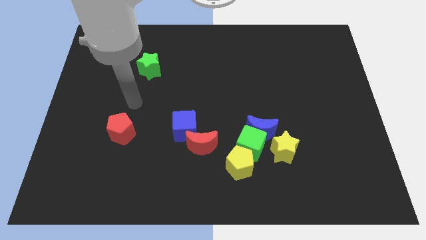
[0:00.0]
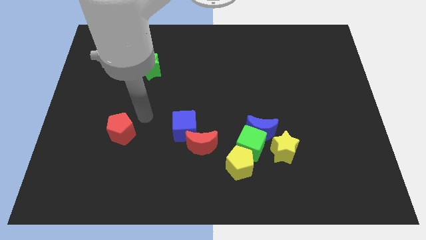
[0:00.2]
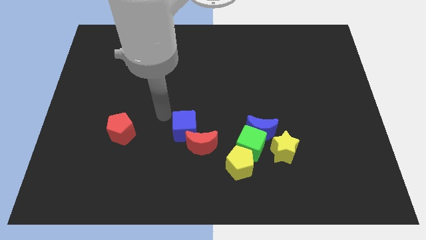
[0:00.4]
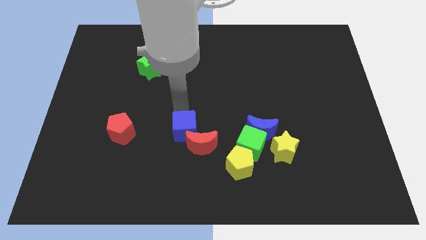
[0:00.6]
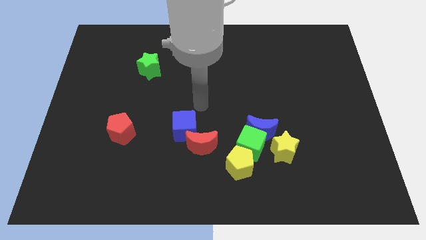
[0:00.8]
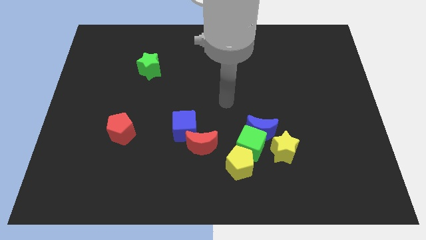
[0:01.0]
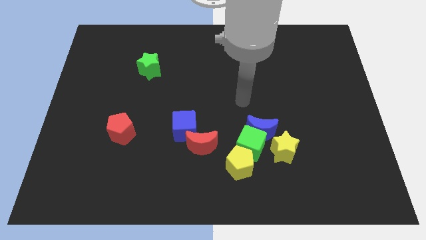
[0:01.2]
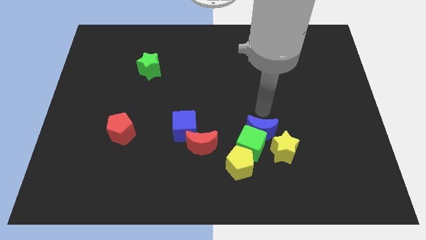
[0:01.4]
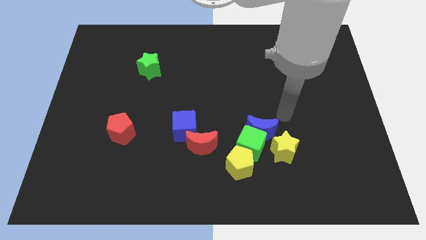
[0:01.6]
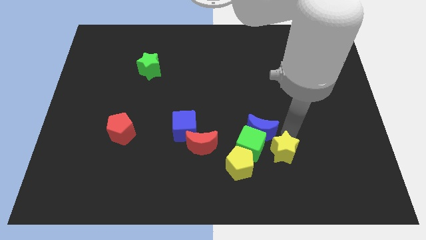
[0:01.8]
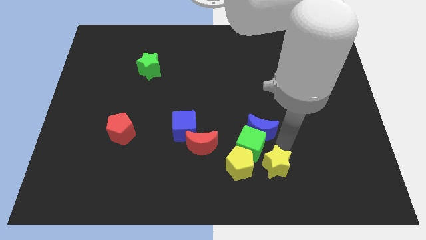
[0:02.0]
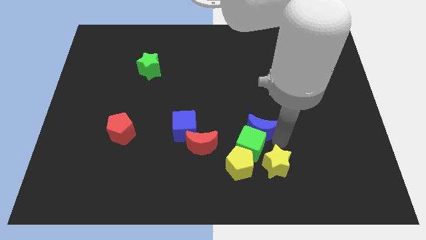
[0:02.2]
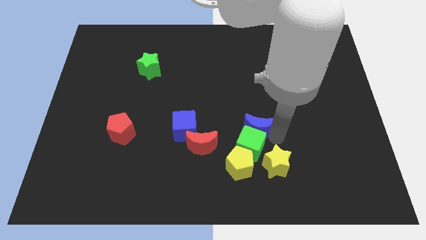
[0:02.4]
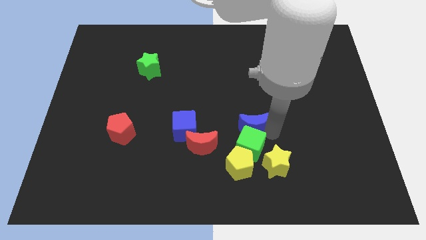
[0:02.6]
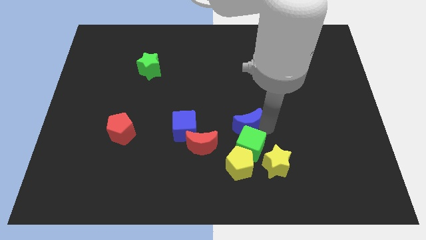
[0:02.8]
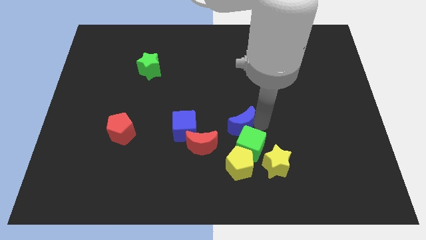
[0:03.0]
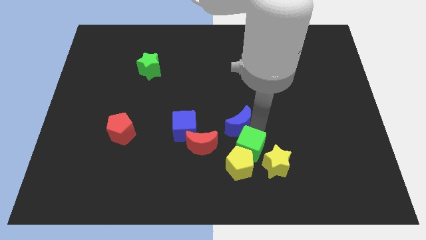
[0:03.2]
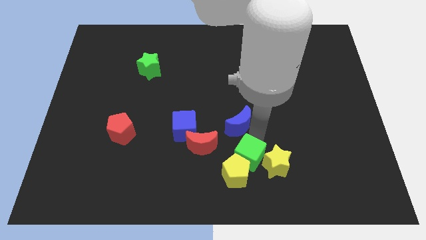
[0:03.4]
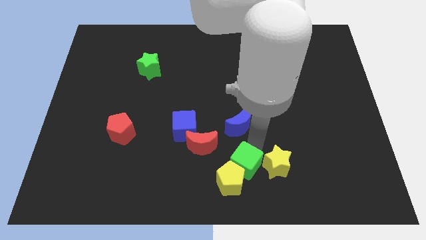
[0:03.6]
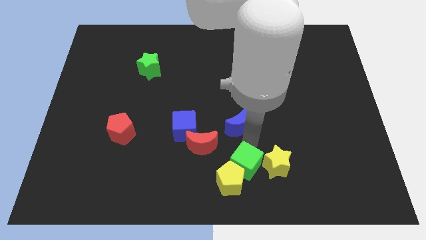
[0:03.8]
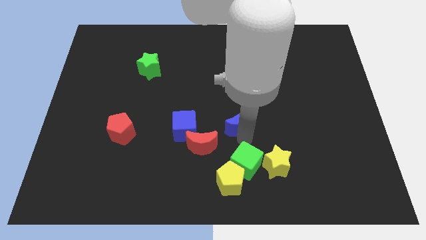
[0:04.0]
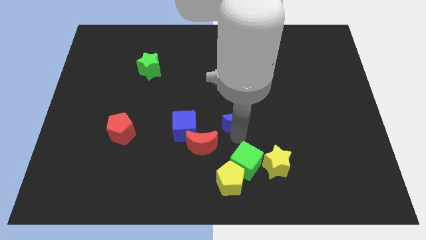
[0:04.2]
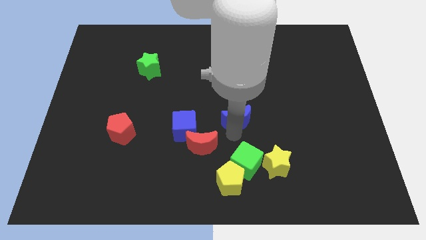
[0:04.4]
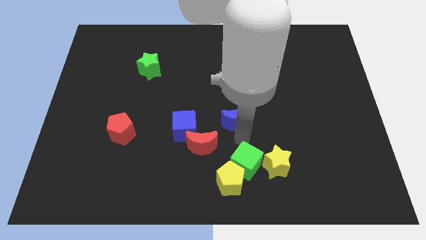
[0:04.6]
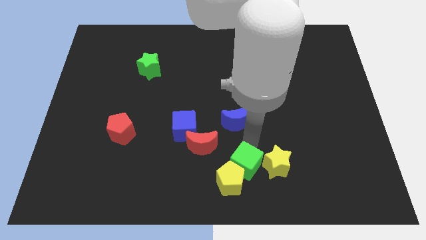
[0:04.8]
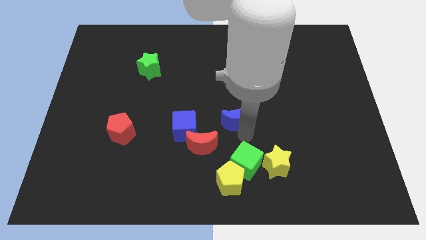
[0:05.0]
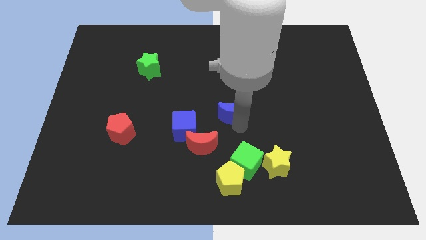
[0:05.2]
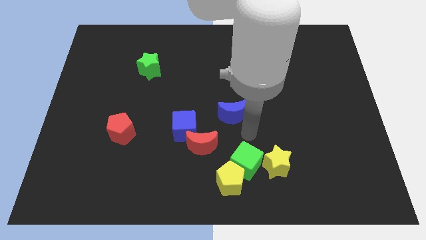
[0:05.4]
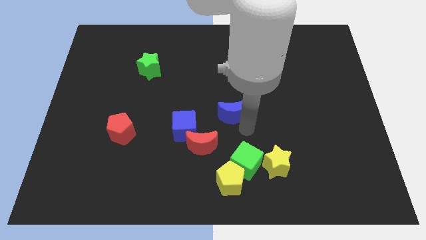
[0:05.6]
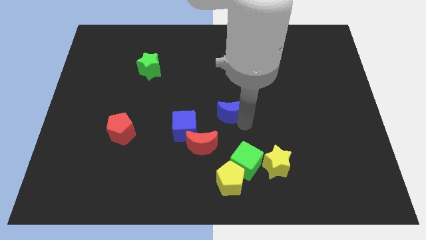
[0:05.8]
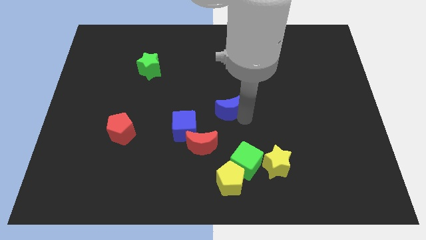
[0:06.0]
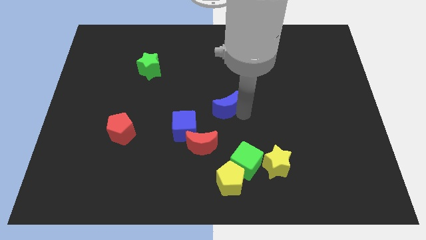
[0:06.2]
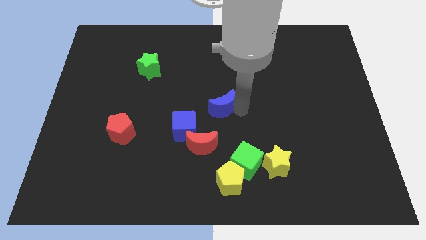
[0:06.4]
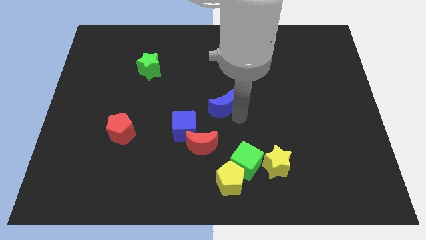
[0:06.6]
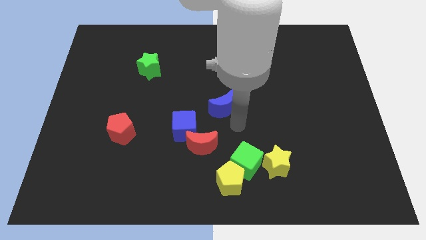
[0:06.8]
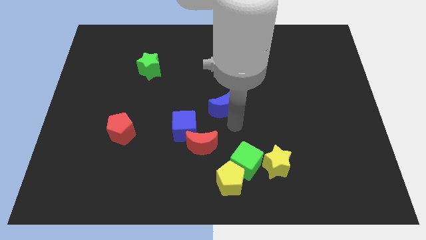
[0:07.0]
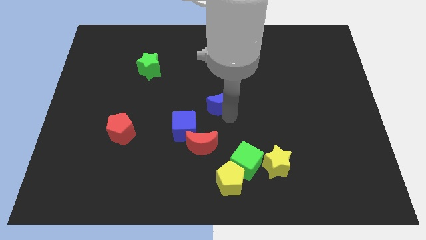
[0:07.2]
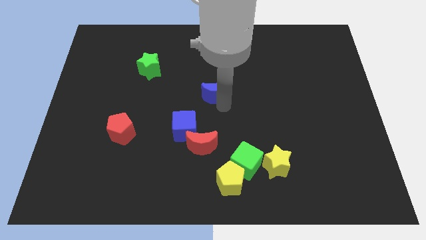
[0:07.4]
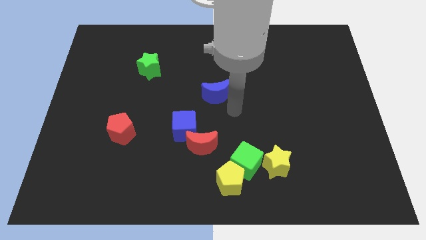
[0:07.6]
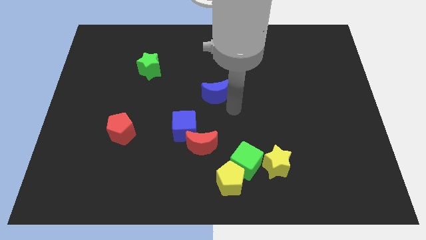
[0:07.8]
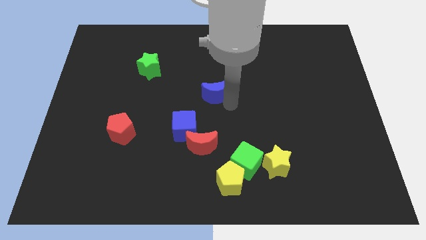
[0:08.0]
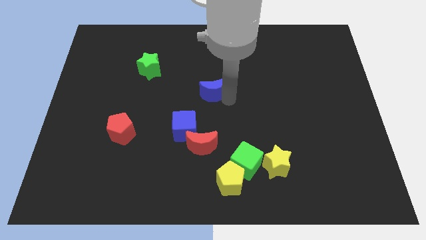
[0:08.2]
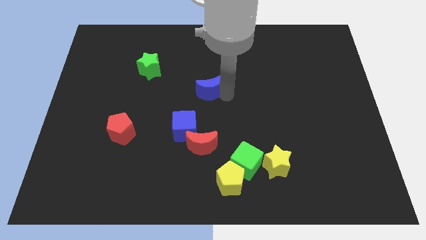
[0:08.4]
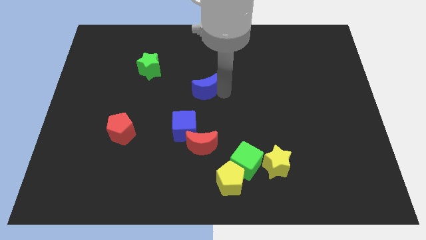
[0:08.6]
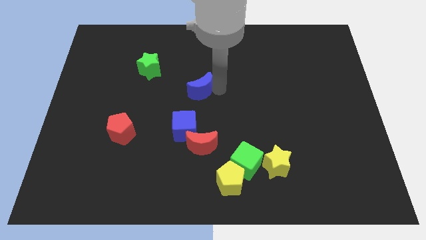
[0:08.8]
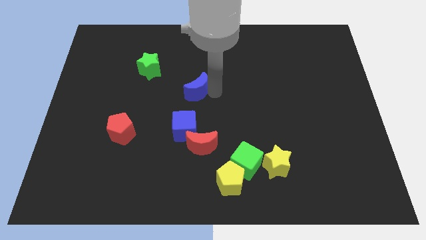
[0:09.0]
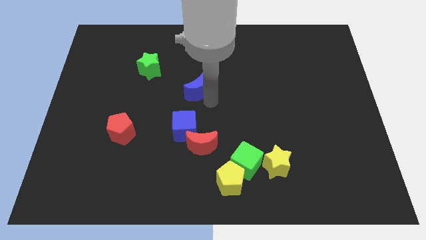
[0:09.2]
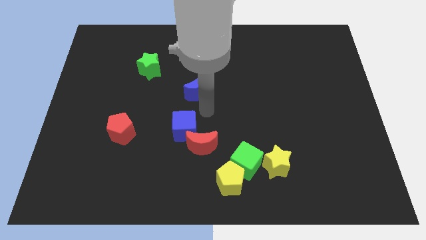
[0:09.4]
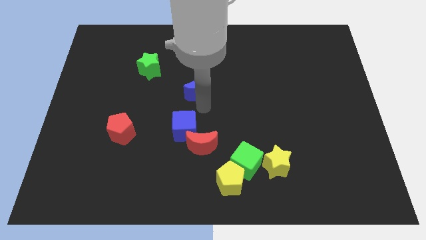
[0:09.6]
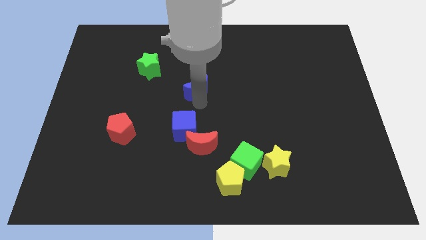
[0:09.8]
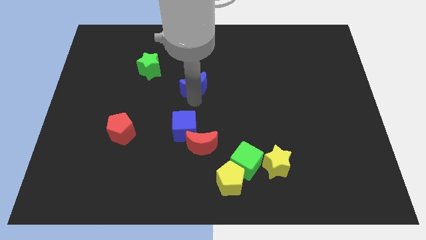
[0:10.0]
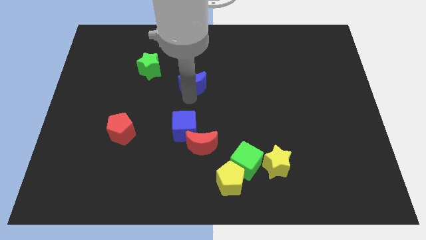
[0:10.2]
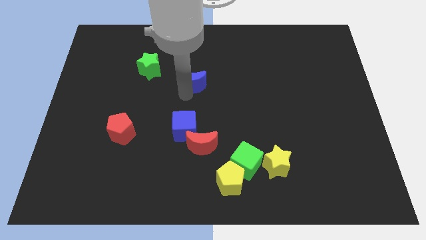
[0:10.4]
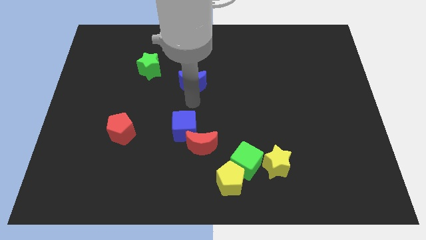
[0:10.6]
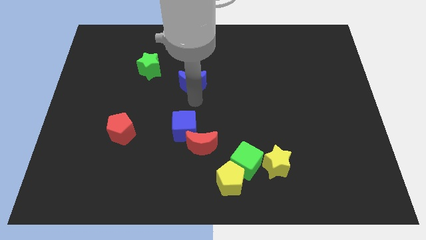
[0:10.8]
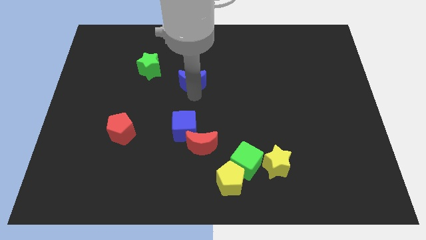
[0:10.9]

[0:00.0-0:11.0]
slide the blue moon to the right side of the green star

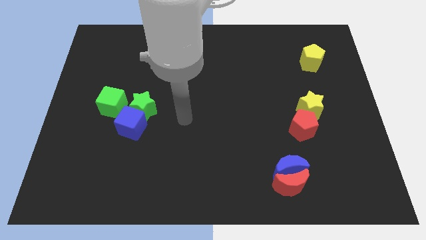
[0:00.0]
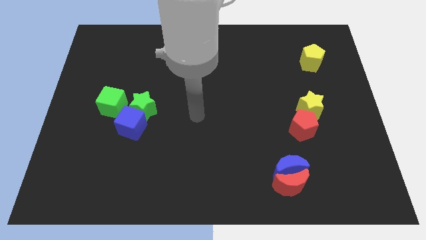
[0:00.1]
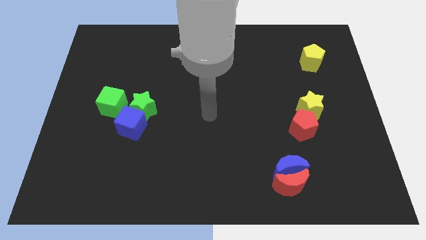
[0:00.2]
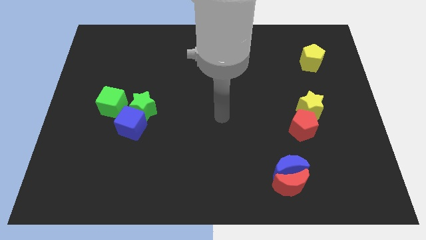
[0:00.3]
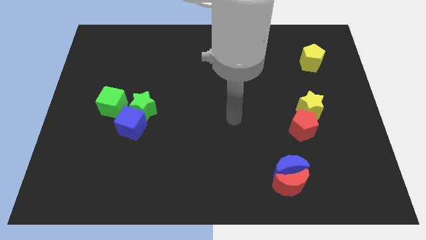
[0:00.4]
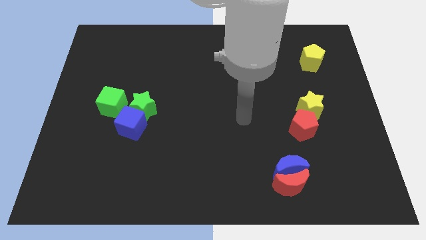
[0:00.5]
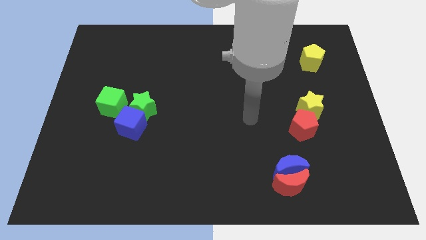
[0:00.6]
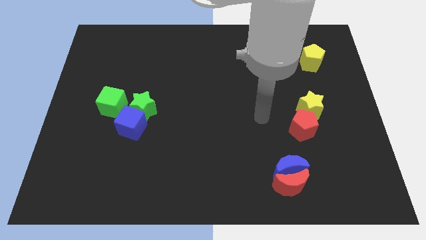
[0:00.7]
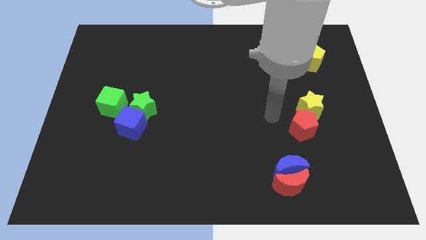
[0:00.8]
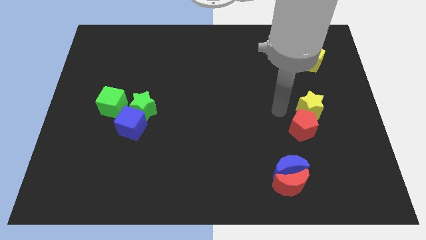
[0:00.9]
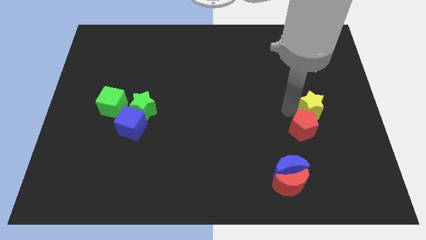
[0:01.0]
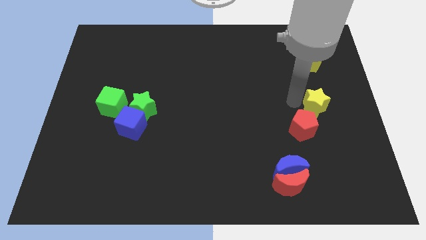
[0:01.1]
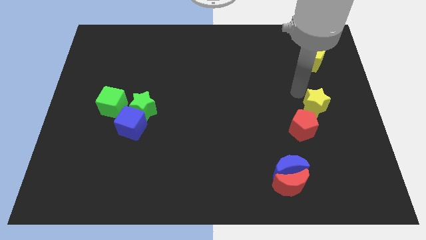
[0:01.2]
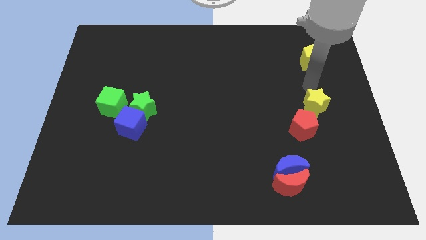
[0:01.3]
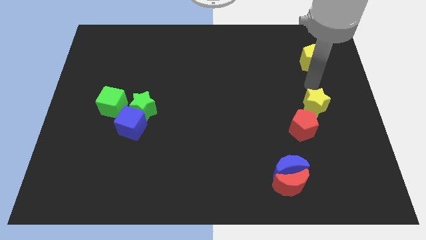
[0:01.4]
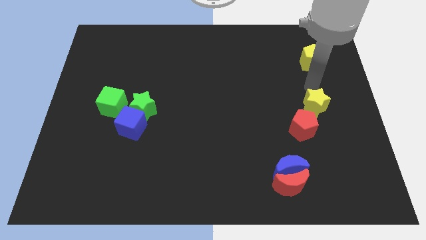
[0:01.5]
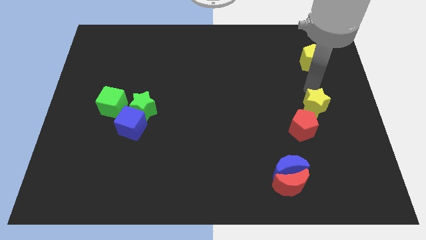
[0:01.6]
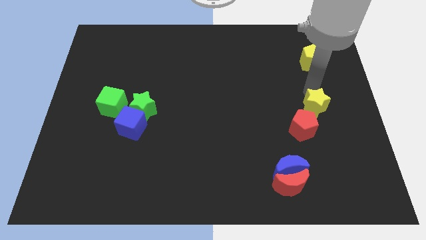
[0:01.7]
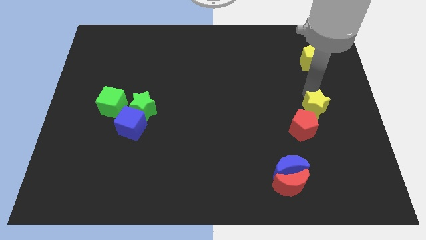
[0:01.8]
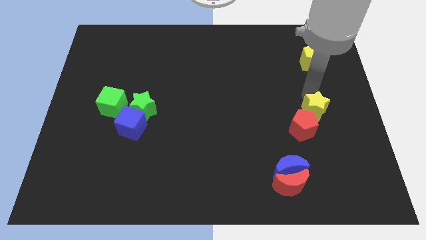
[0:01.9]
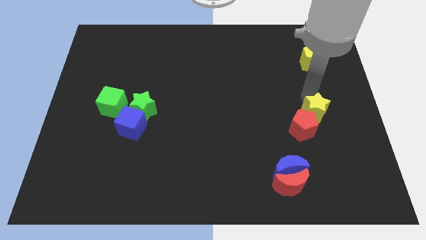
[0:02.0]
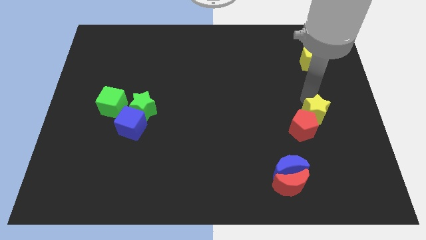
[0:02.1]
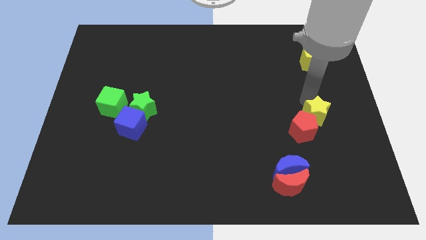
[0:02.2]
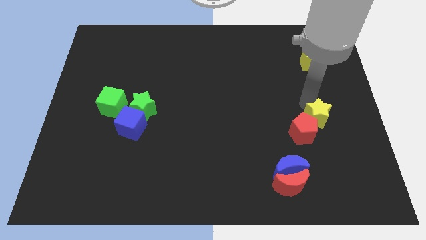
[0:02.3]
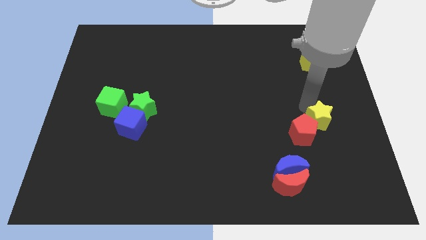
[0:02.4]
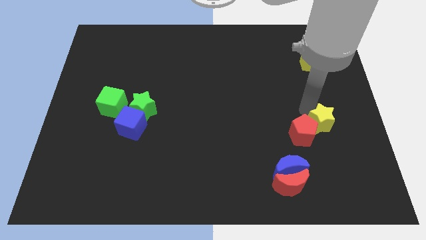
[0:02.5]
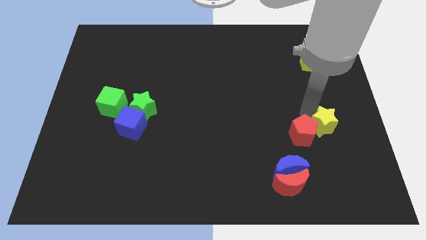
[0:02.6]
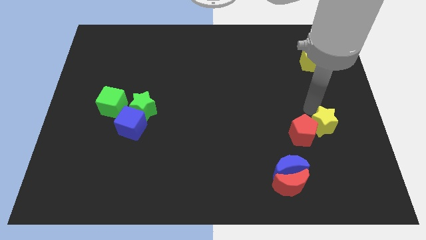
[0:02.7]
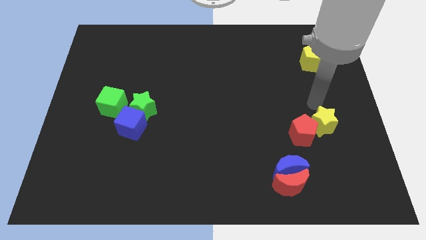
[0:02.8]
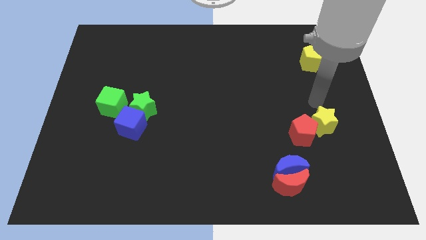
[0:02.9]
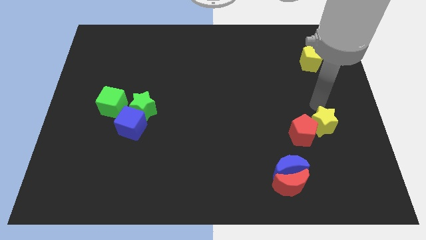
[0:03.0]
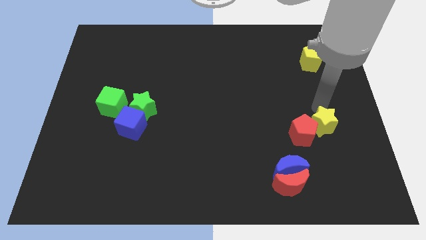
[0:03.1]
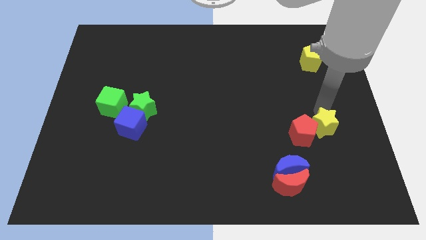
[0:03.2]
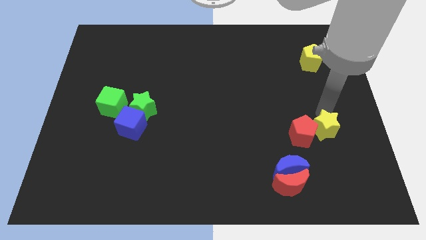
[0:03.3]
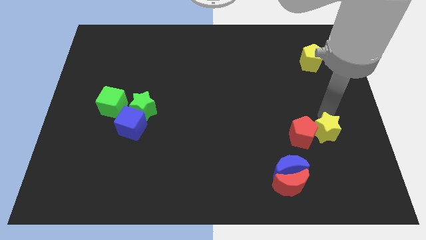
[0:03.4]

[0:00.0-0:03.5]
push the yellow star diagonally down and to the right of the red pentagon
